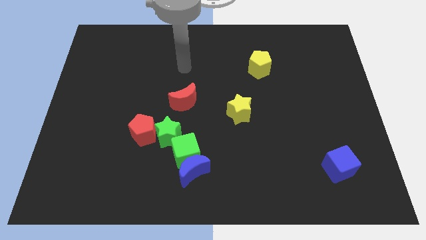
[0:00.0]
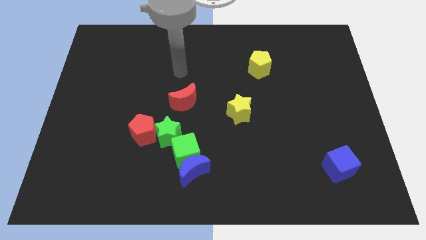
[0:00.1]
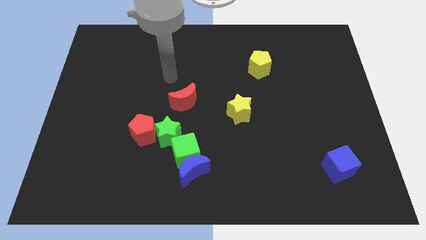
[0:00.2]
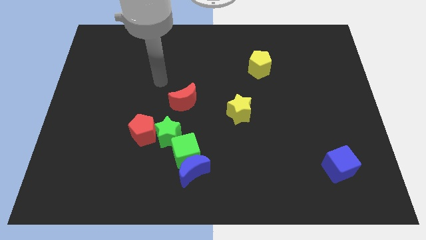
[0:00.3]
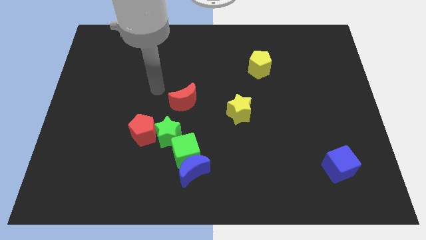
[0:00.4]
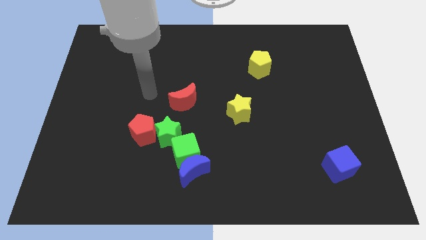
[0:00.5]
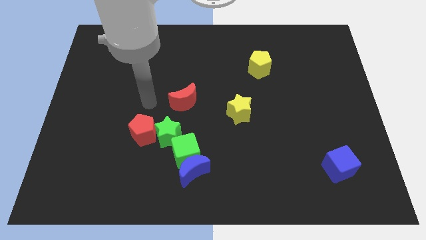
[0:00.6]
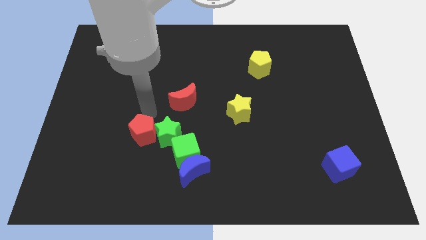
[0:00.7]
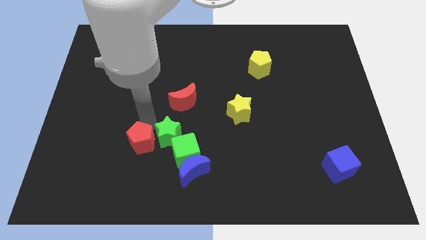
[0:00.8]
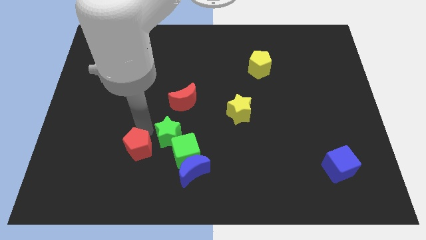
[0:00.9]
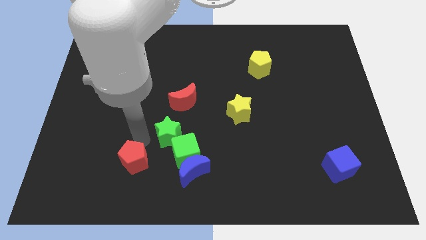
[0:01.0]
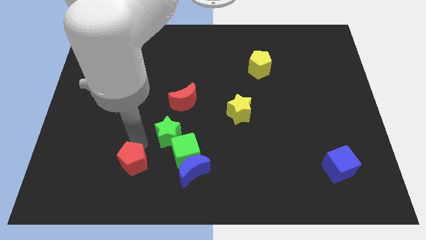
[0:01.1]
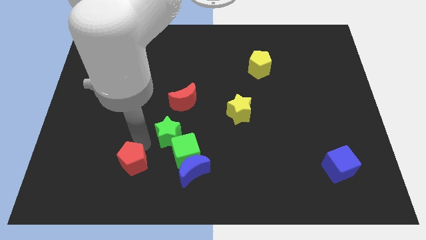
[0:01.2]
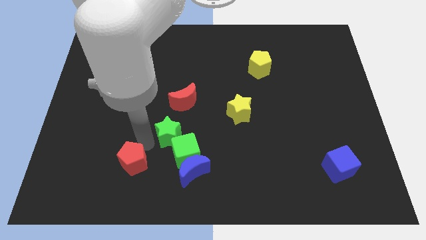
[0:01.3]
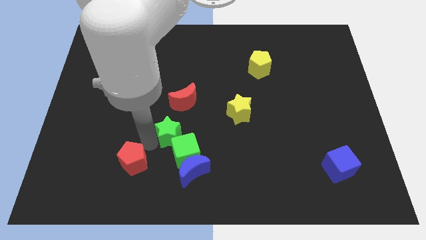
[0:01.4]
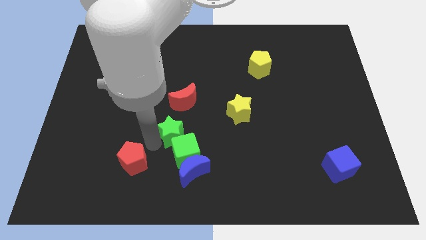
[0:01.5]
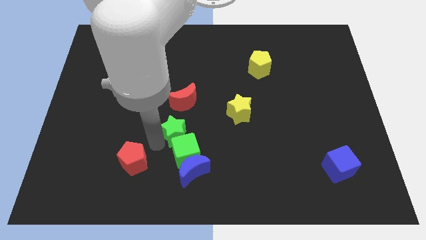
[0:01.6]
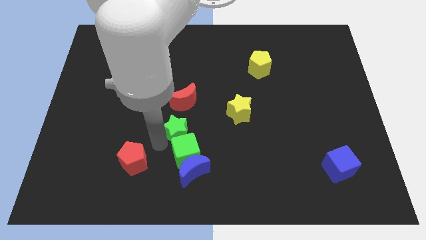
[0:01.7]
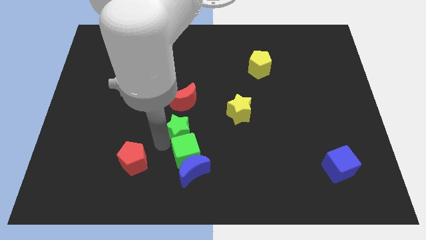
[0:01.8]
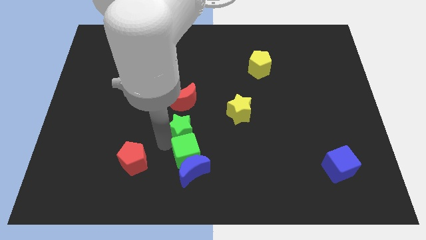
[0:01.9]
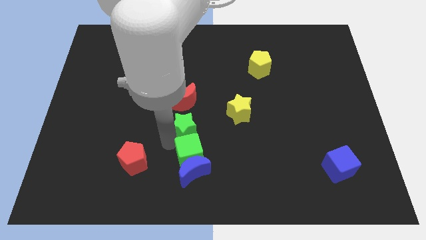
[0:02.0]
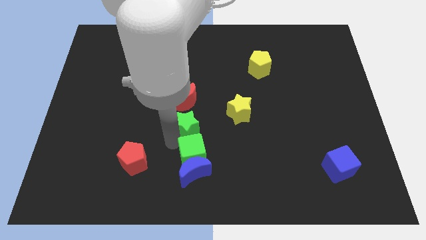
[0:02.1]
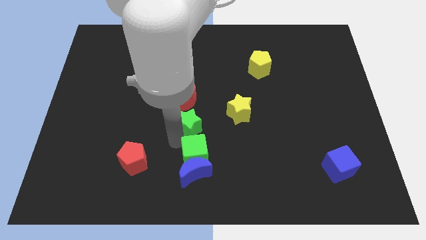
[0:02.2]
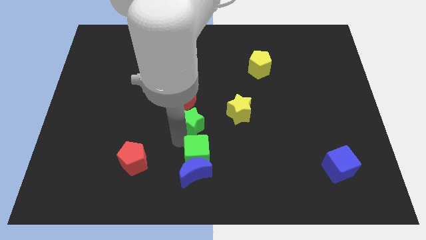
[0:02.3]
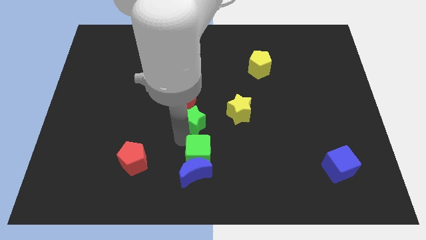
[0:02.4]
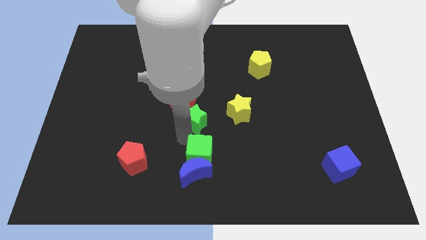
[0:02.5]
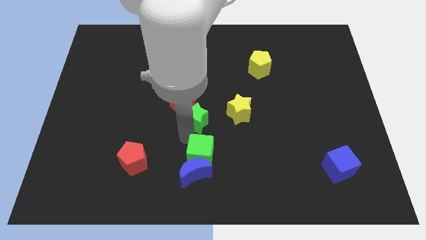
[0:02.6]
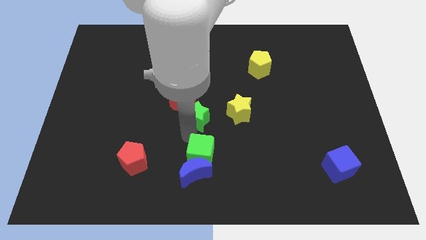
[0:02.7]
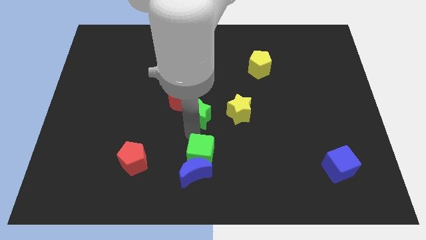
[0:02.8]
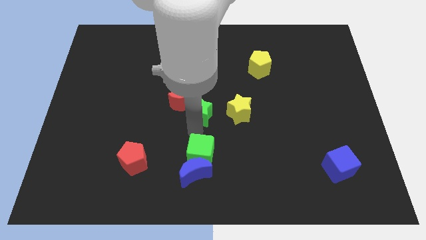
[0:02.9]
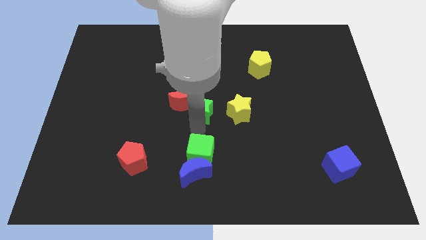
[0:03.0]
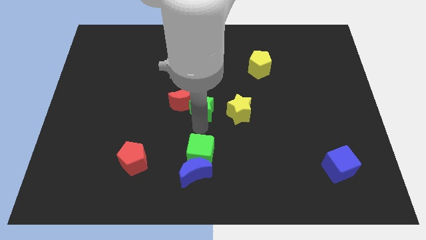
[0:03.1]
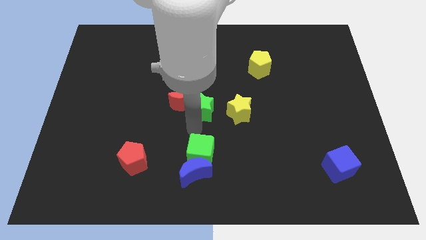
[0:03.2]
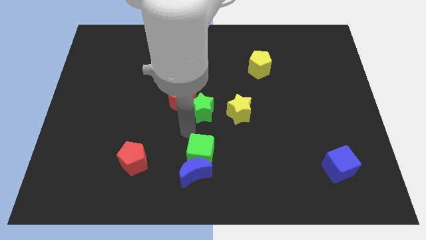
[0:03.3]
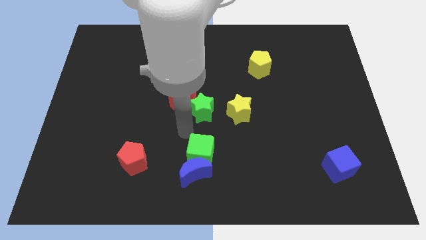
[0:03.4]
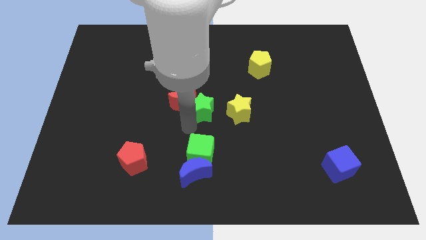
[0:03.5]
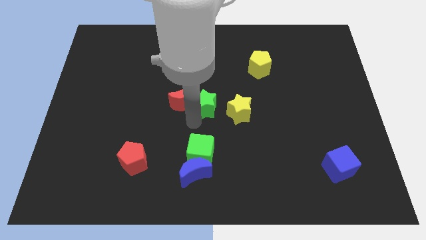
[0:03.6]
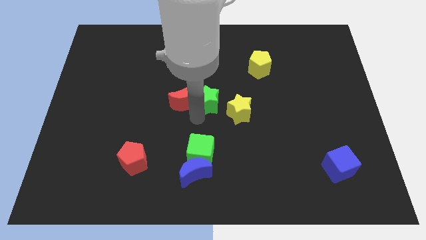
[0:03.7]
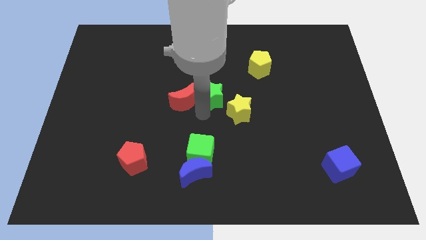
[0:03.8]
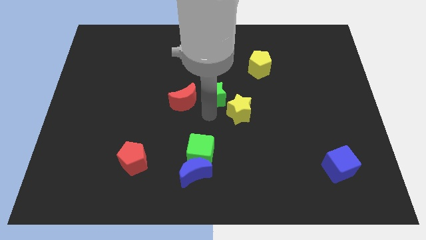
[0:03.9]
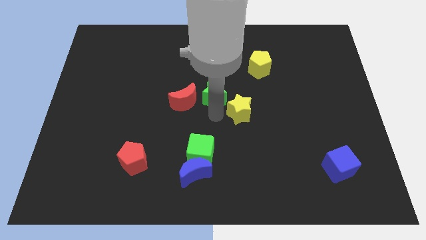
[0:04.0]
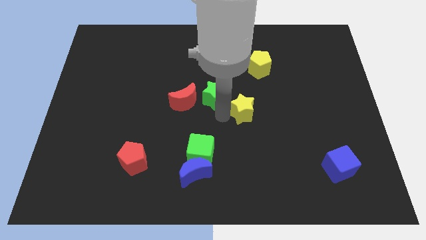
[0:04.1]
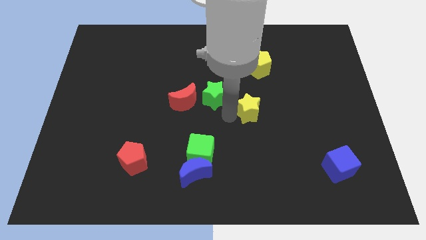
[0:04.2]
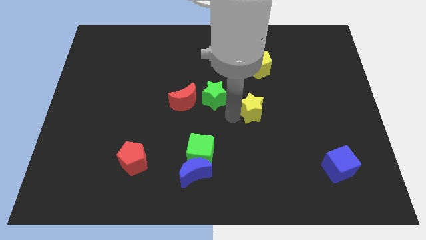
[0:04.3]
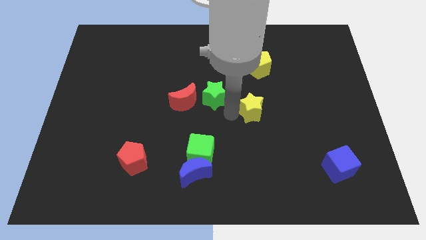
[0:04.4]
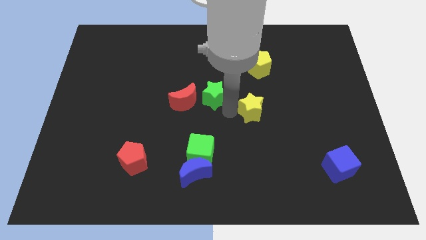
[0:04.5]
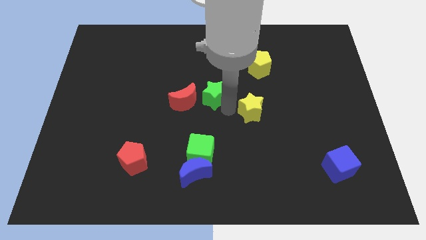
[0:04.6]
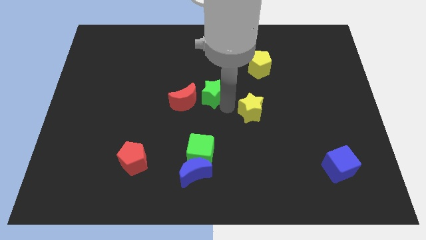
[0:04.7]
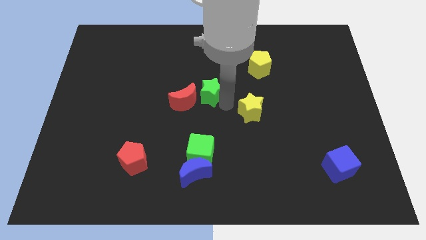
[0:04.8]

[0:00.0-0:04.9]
slightly push the green star up

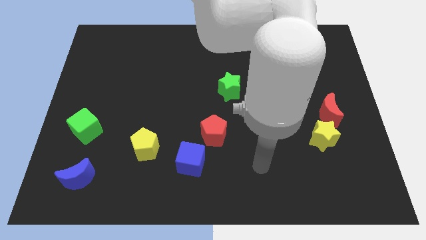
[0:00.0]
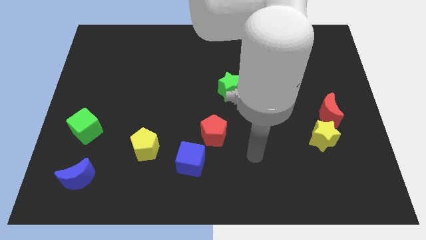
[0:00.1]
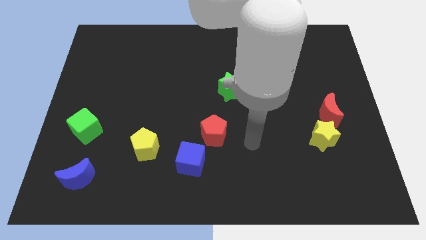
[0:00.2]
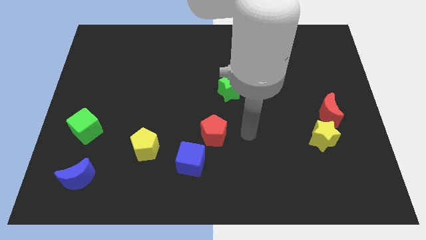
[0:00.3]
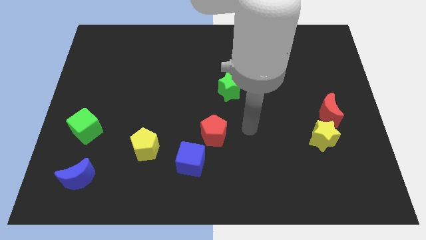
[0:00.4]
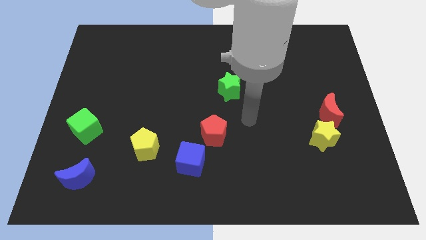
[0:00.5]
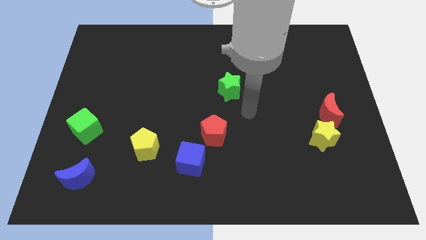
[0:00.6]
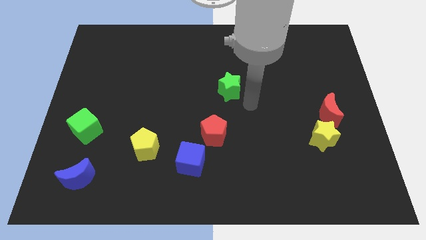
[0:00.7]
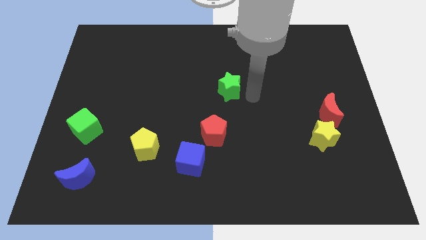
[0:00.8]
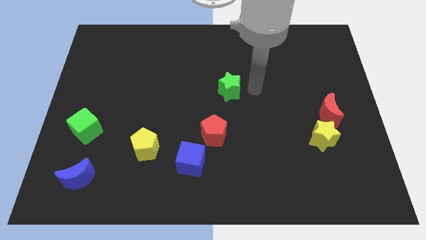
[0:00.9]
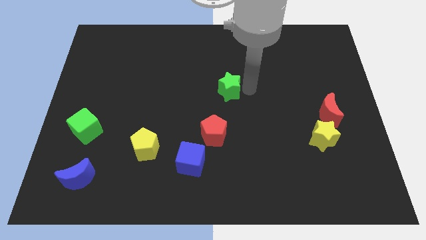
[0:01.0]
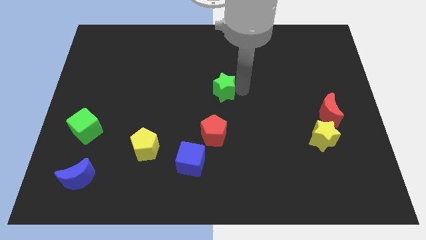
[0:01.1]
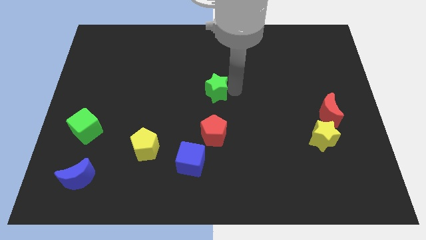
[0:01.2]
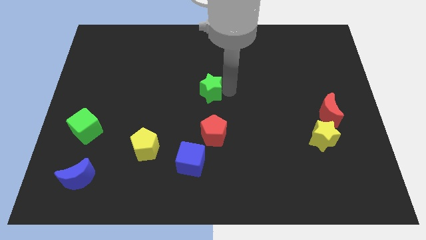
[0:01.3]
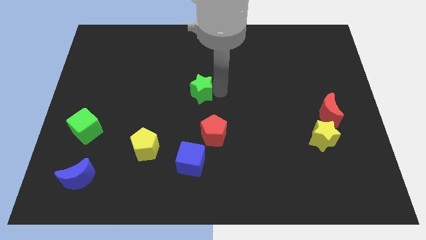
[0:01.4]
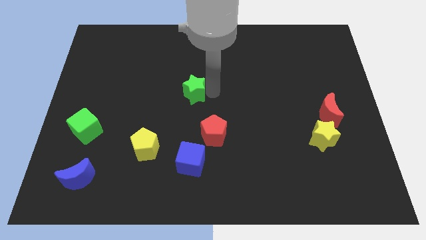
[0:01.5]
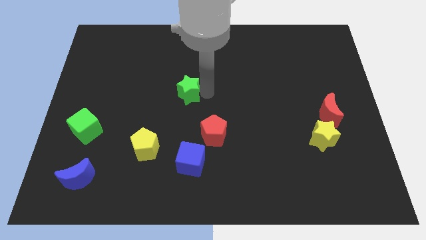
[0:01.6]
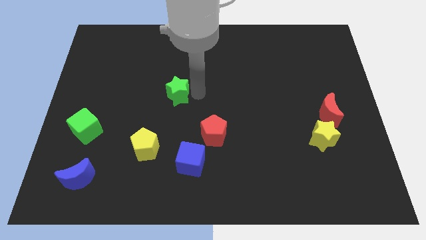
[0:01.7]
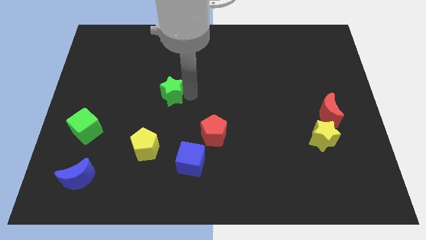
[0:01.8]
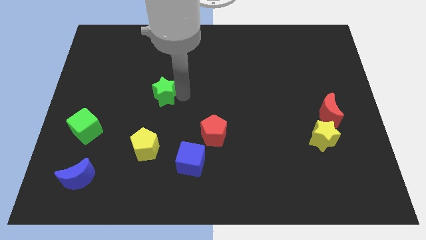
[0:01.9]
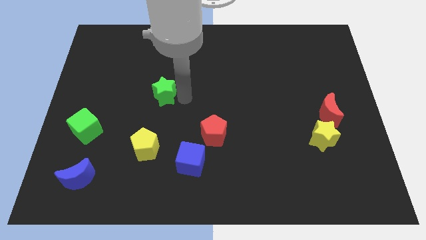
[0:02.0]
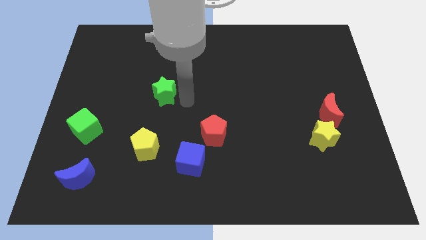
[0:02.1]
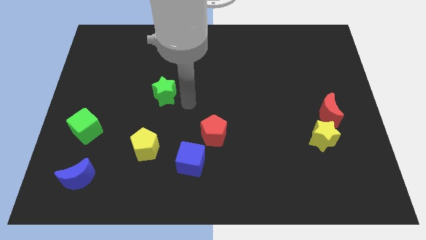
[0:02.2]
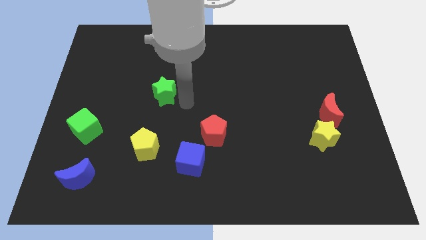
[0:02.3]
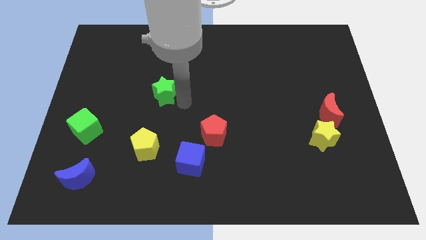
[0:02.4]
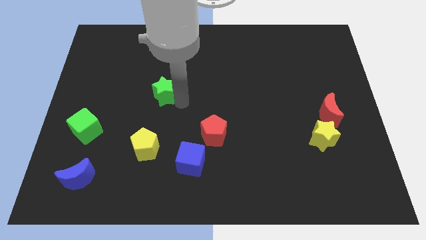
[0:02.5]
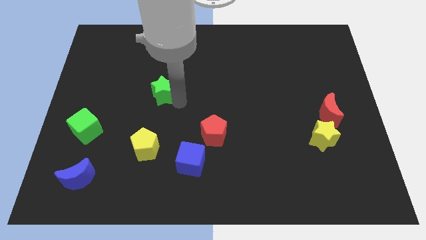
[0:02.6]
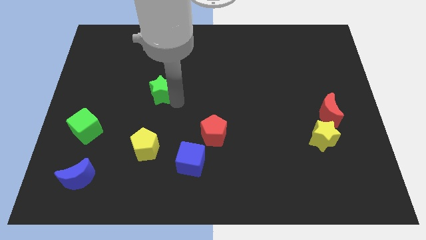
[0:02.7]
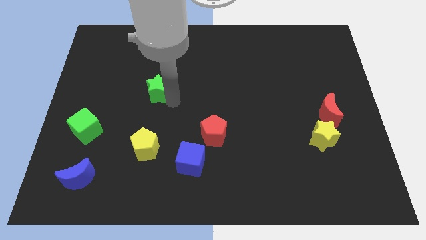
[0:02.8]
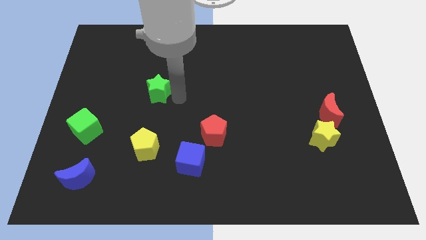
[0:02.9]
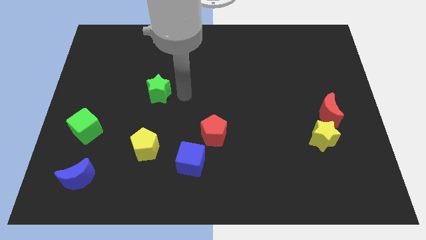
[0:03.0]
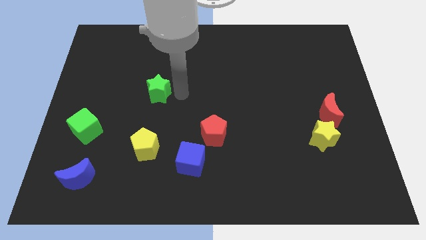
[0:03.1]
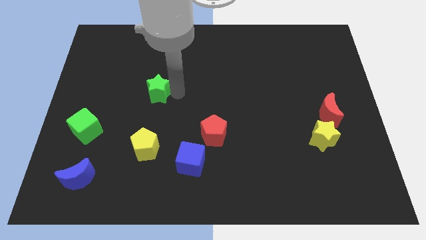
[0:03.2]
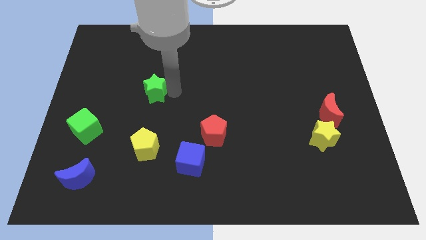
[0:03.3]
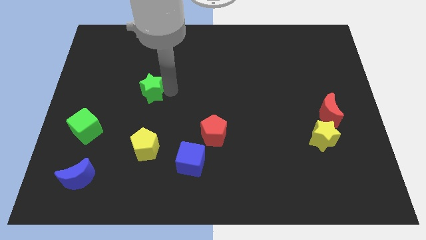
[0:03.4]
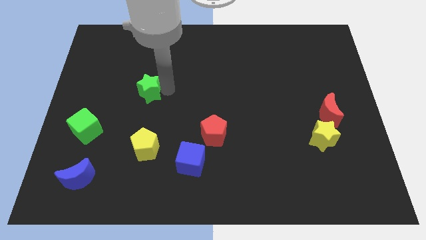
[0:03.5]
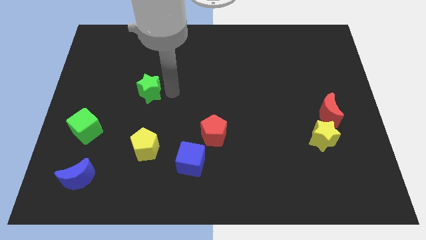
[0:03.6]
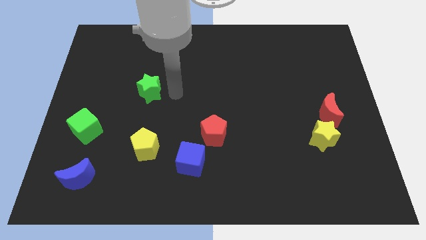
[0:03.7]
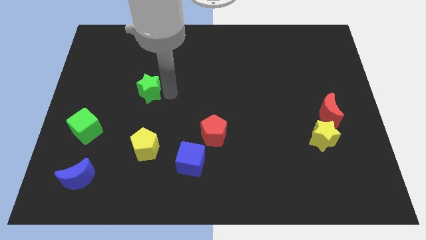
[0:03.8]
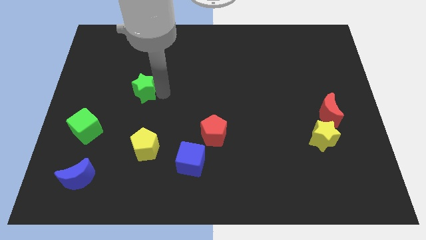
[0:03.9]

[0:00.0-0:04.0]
move the green star left
